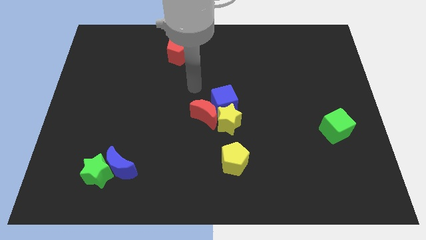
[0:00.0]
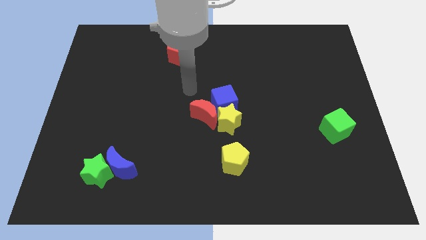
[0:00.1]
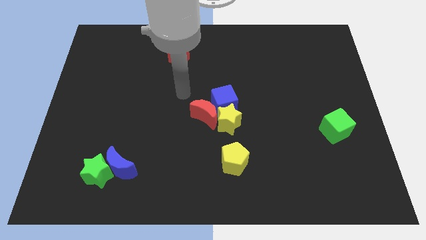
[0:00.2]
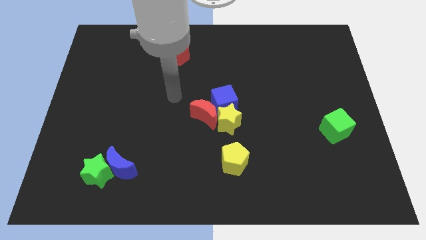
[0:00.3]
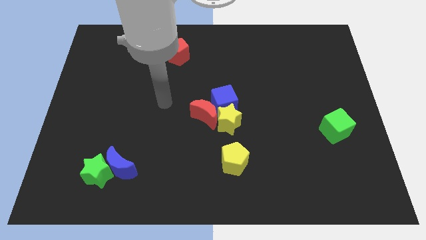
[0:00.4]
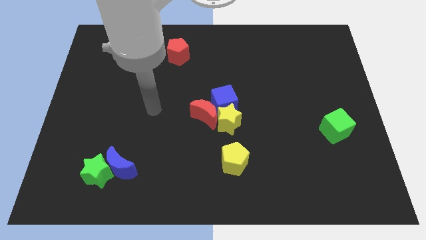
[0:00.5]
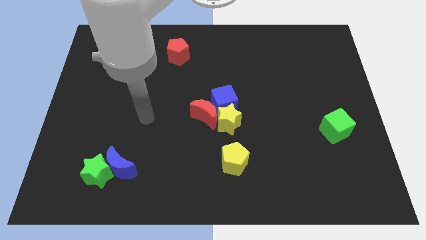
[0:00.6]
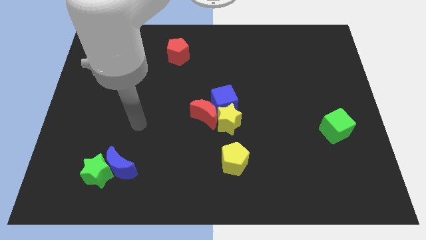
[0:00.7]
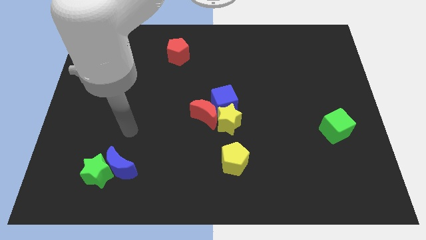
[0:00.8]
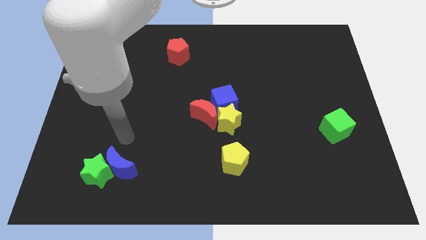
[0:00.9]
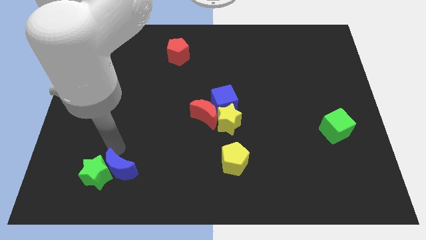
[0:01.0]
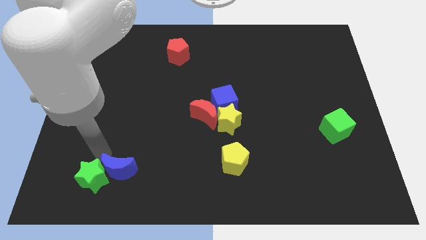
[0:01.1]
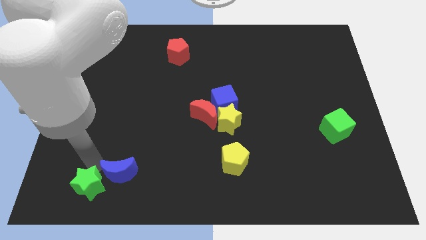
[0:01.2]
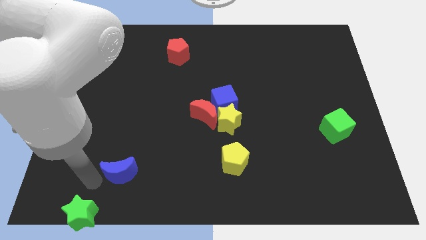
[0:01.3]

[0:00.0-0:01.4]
pull the blue moon apart from the green star

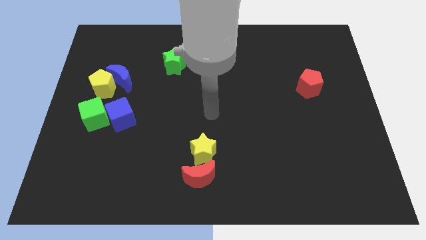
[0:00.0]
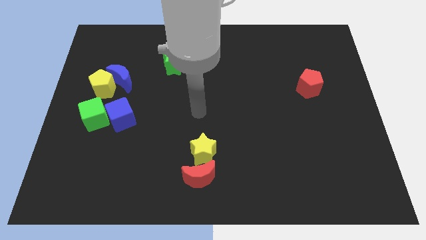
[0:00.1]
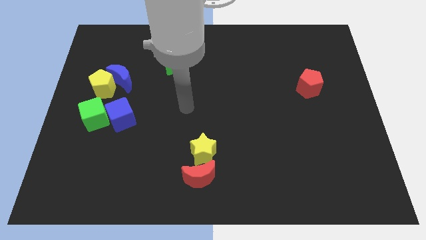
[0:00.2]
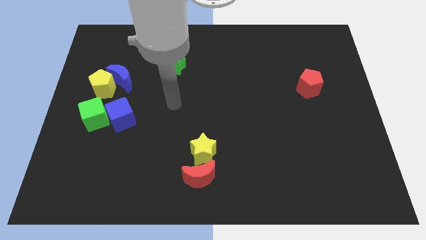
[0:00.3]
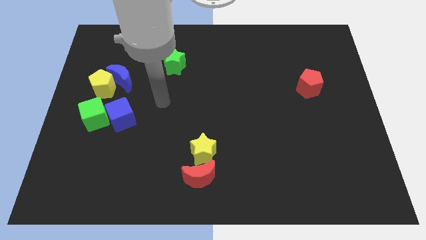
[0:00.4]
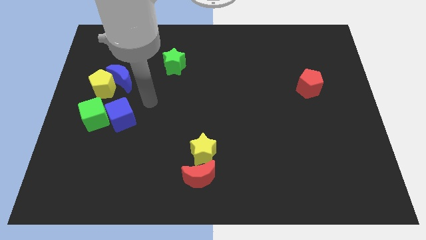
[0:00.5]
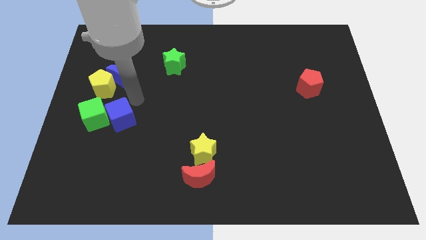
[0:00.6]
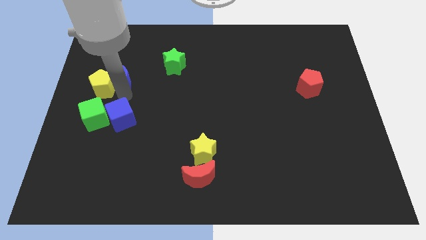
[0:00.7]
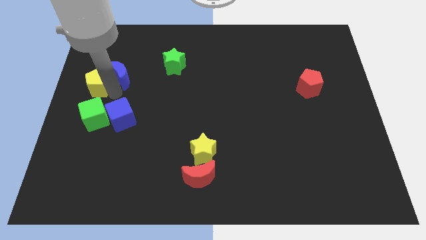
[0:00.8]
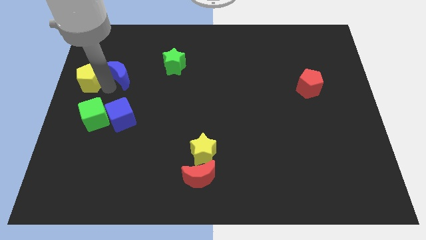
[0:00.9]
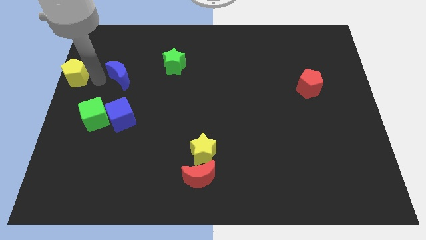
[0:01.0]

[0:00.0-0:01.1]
move the blue moon away from the yellow pentagon

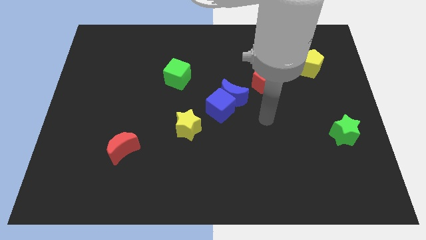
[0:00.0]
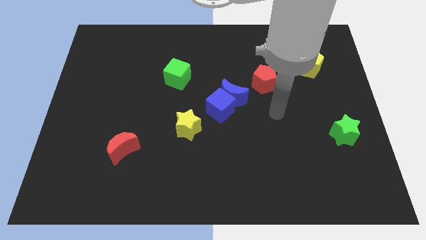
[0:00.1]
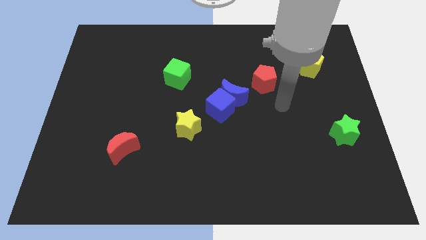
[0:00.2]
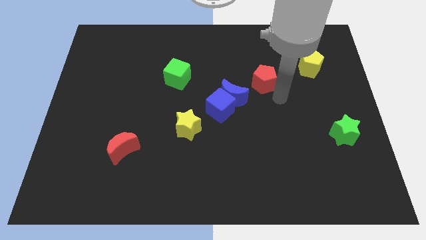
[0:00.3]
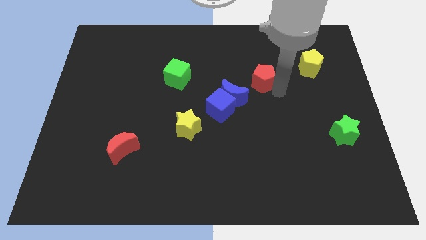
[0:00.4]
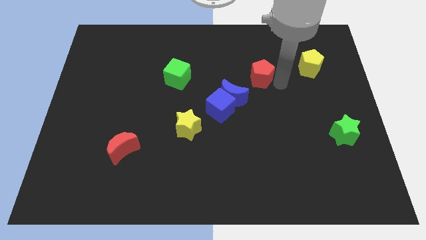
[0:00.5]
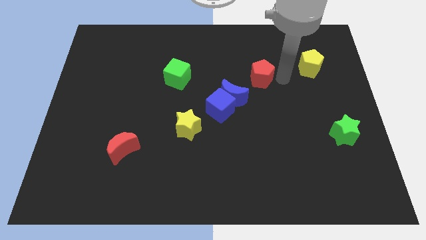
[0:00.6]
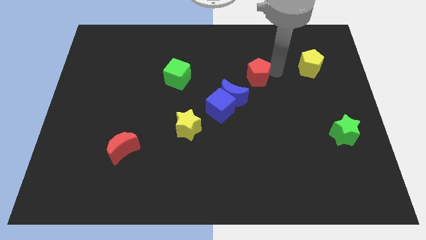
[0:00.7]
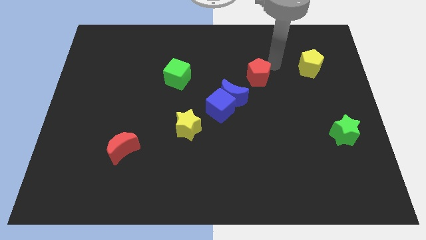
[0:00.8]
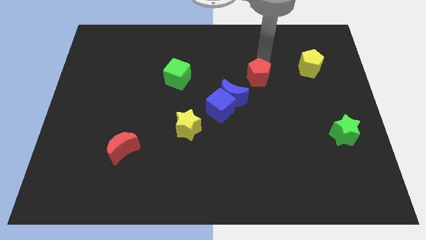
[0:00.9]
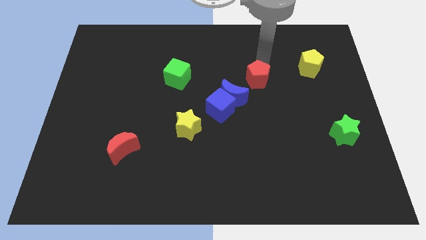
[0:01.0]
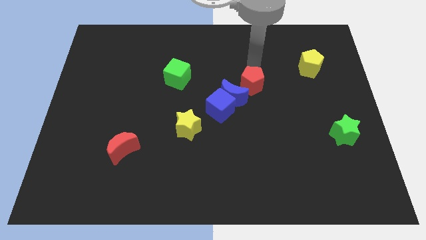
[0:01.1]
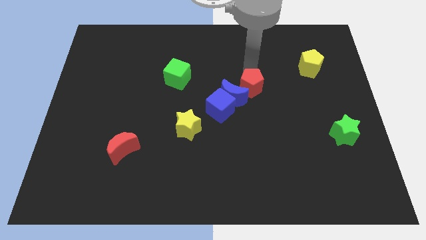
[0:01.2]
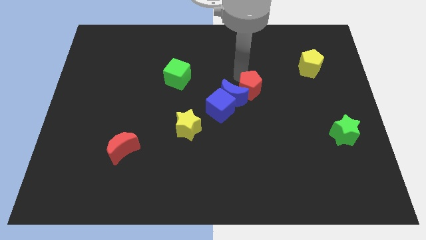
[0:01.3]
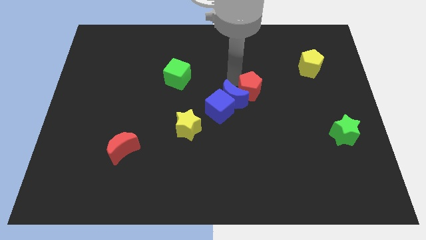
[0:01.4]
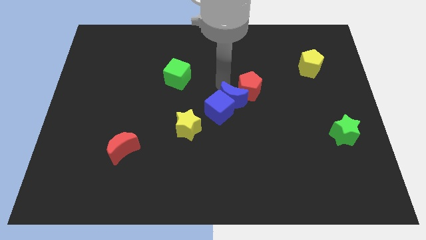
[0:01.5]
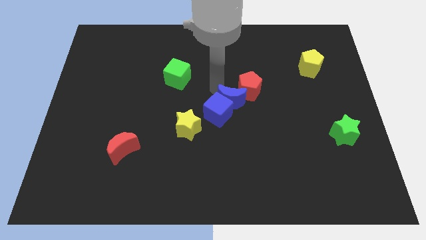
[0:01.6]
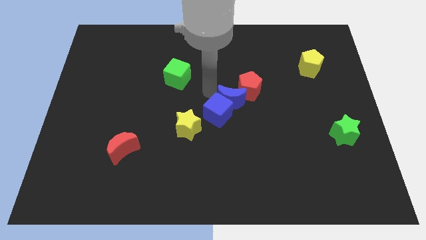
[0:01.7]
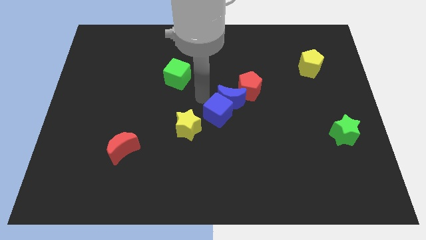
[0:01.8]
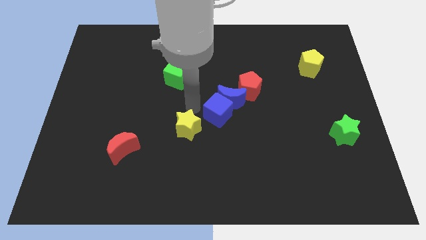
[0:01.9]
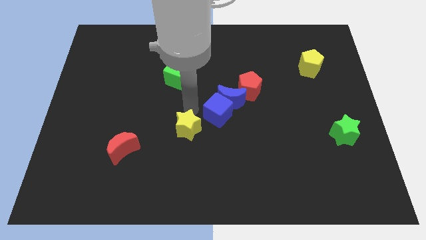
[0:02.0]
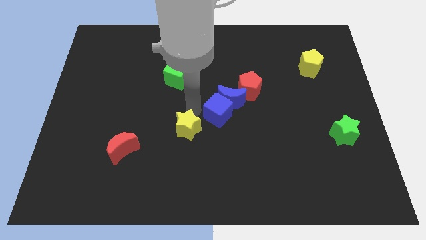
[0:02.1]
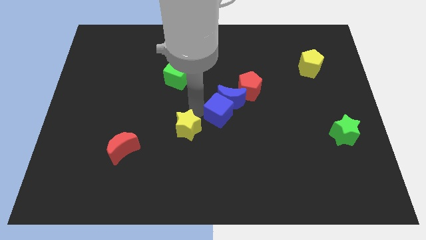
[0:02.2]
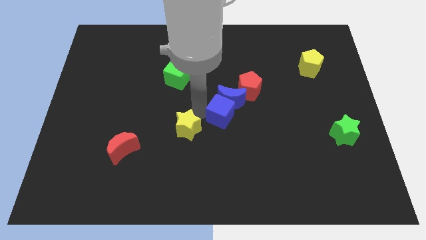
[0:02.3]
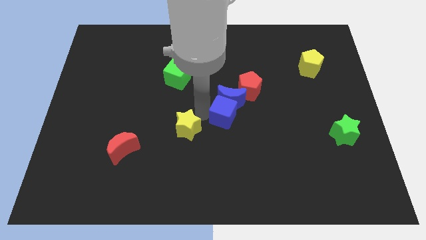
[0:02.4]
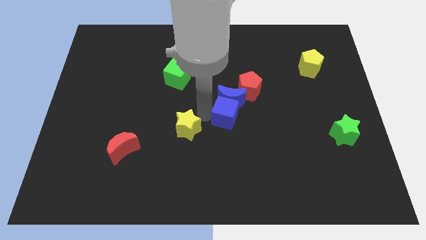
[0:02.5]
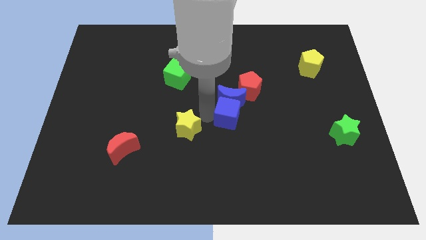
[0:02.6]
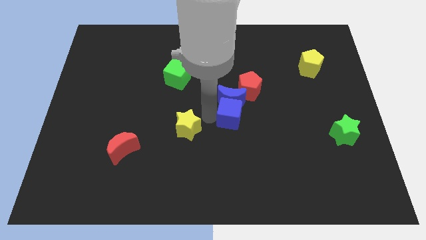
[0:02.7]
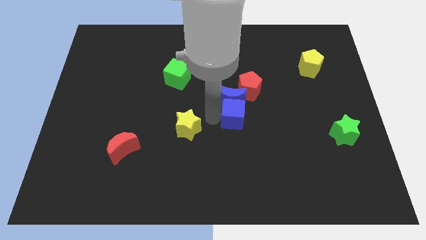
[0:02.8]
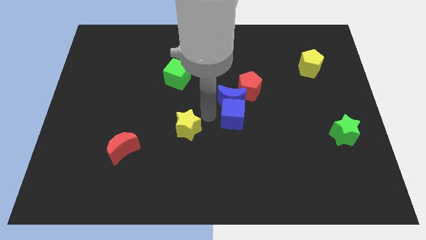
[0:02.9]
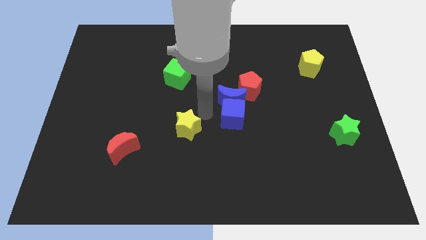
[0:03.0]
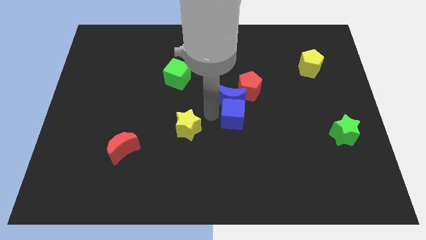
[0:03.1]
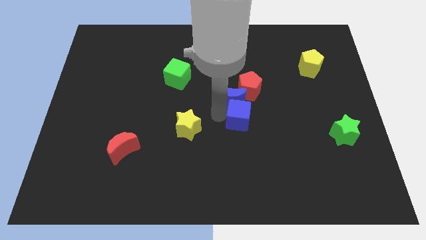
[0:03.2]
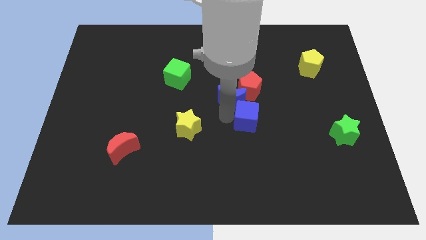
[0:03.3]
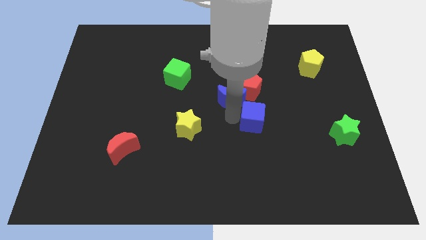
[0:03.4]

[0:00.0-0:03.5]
move the blue cube away from the blue moon and yellow star

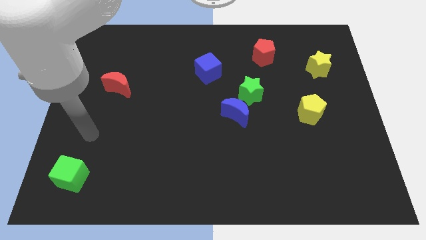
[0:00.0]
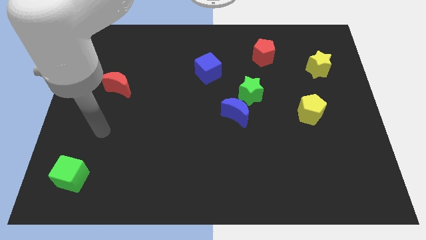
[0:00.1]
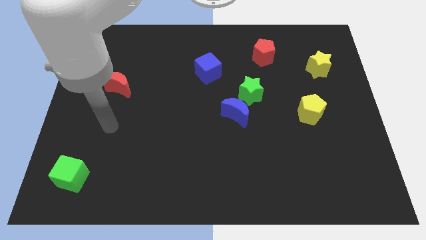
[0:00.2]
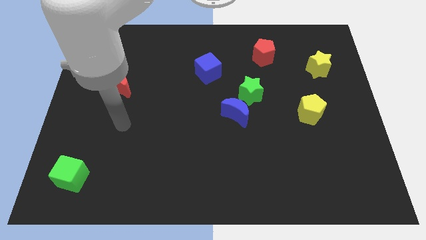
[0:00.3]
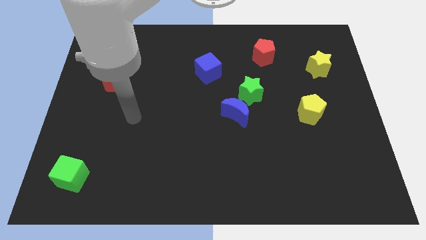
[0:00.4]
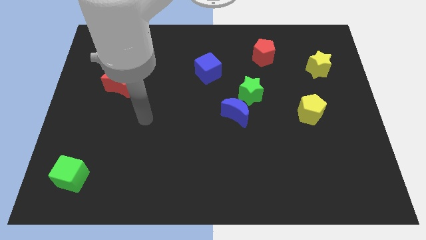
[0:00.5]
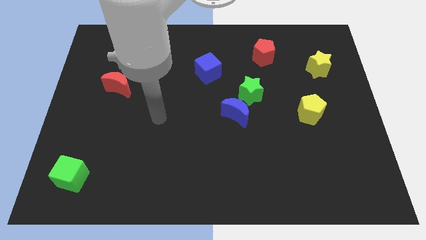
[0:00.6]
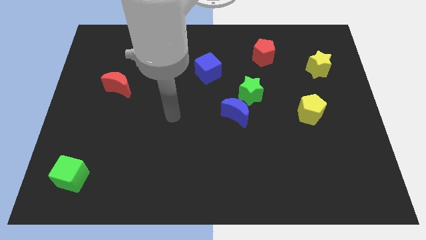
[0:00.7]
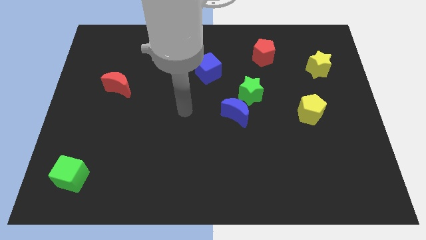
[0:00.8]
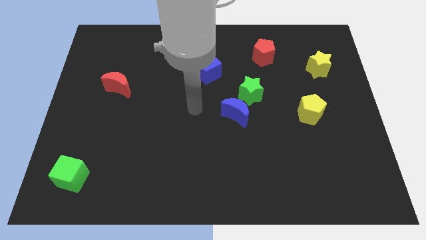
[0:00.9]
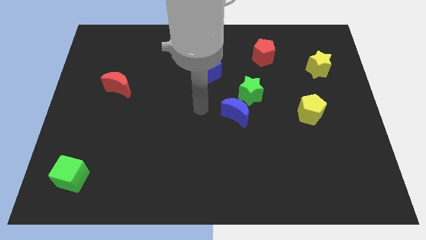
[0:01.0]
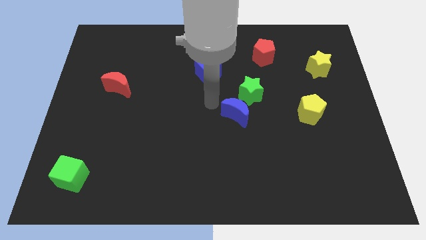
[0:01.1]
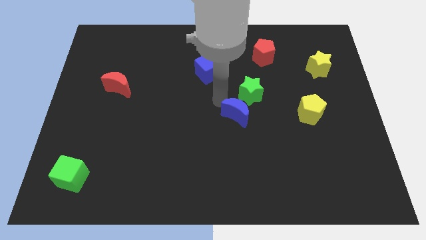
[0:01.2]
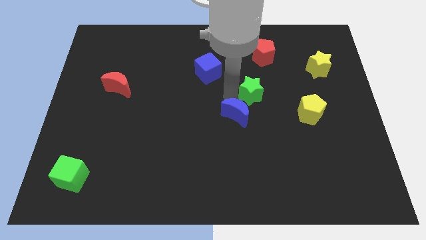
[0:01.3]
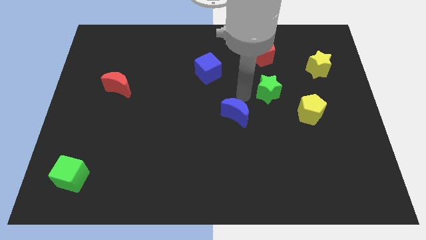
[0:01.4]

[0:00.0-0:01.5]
move the blue moon away from the green star

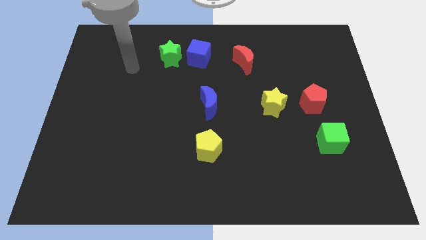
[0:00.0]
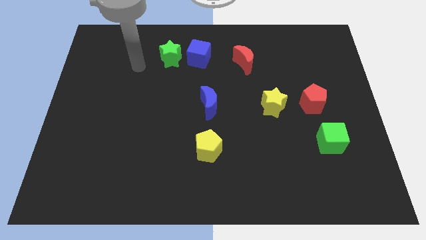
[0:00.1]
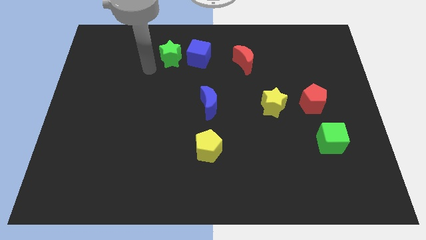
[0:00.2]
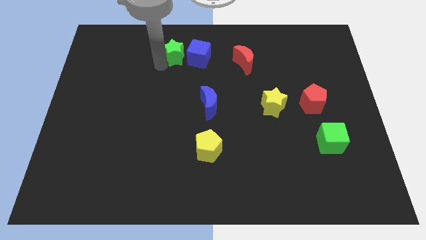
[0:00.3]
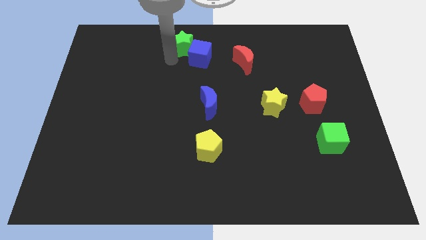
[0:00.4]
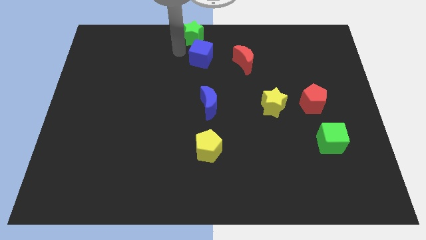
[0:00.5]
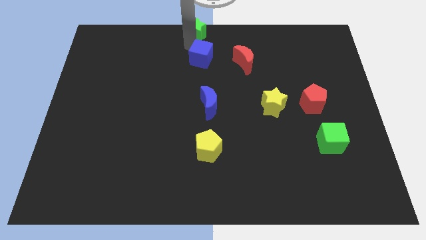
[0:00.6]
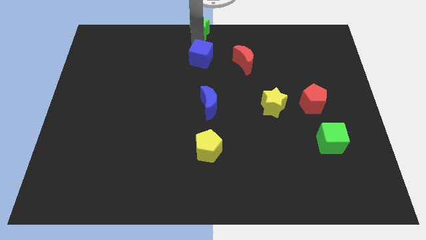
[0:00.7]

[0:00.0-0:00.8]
pull the blue cube apart from the green star

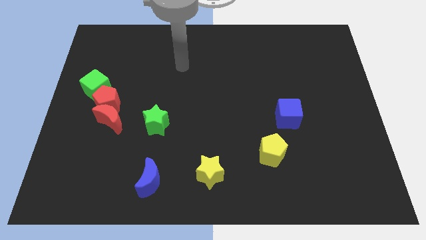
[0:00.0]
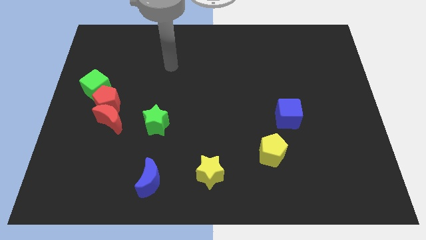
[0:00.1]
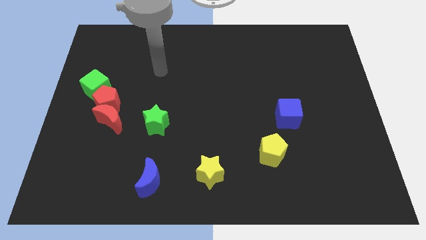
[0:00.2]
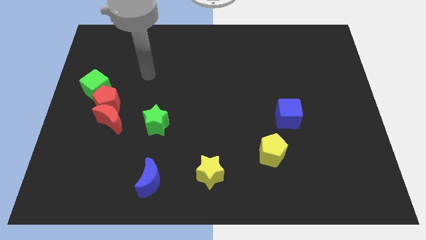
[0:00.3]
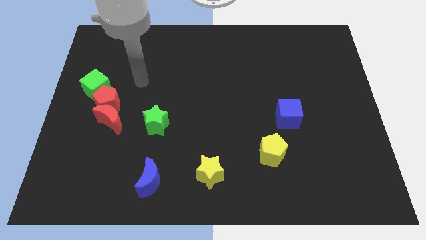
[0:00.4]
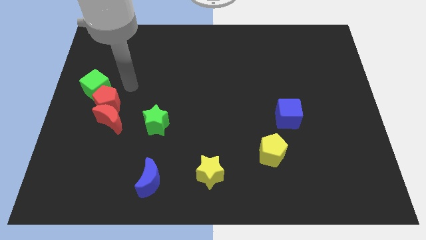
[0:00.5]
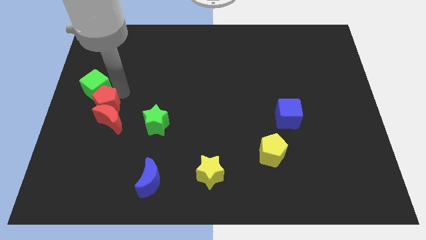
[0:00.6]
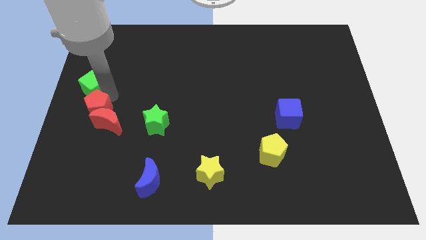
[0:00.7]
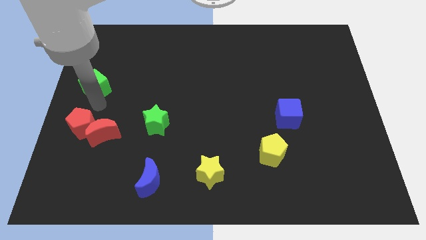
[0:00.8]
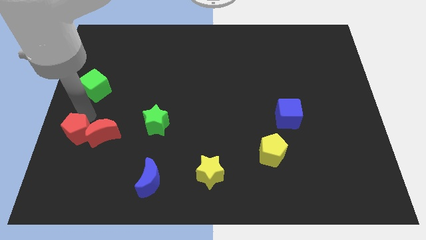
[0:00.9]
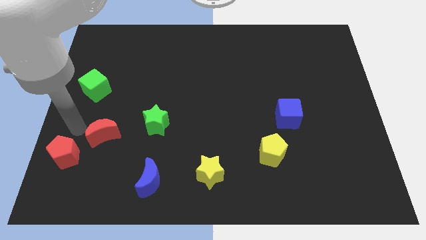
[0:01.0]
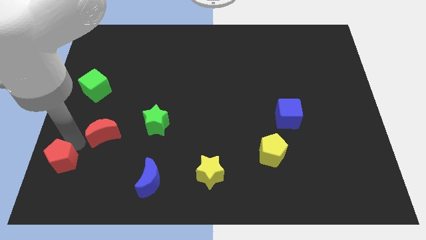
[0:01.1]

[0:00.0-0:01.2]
move the red moon away from the red pentagon

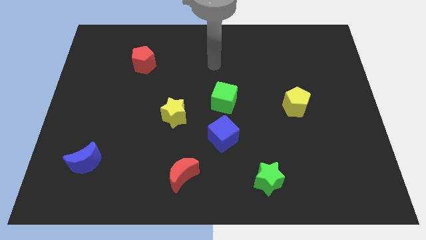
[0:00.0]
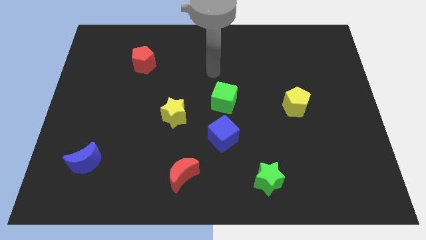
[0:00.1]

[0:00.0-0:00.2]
separate the blue cube from the green cube
